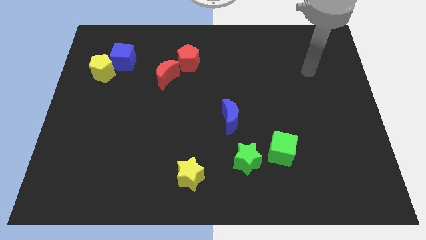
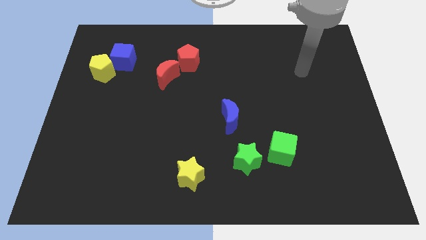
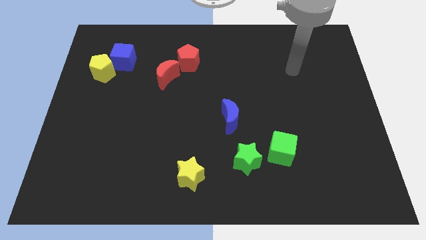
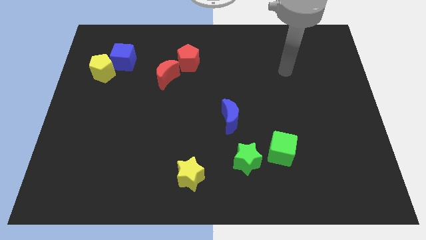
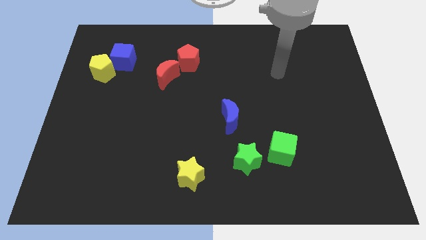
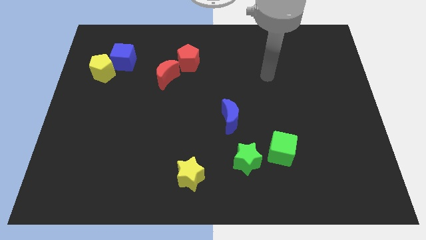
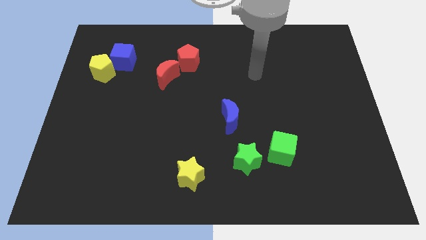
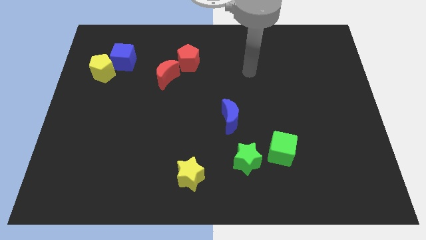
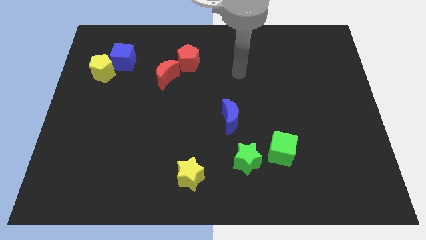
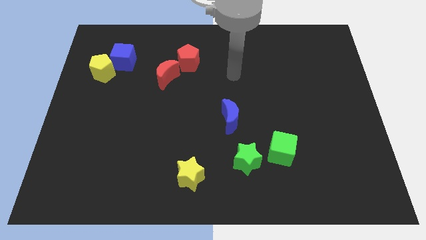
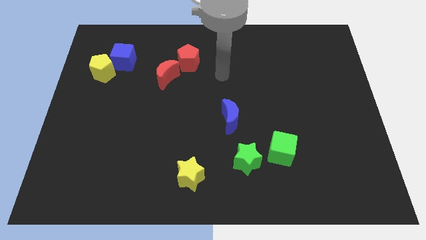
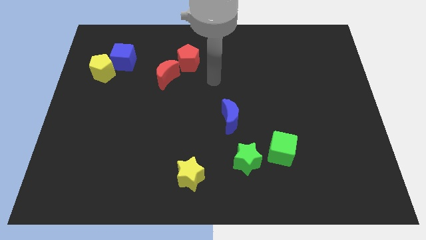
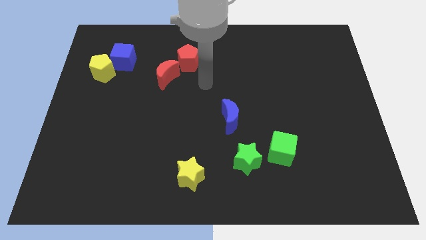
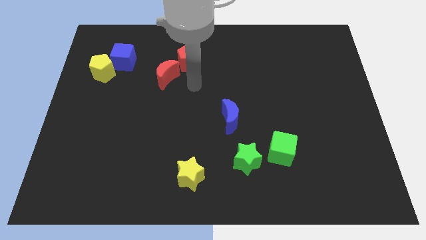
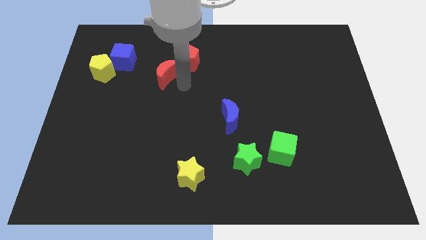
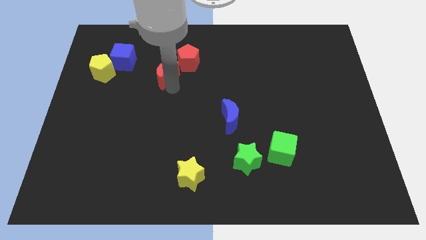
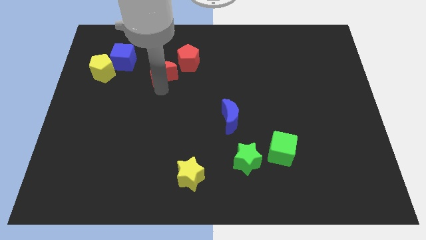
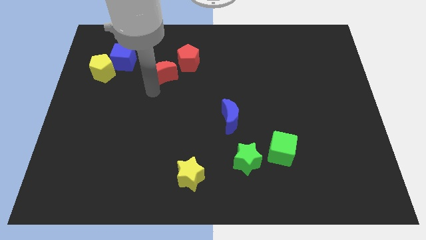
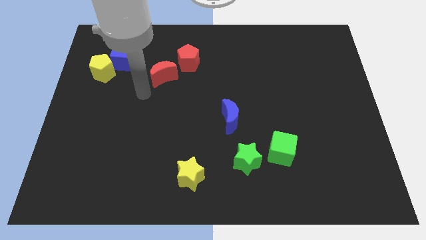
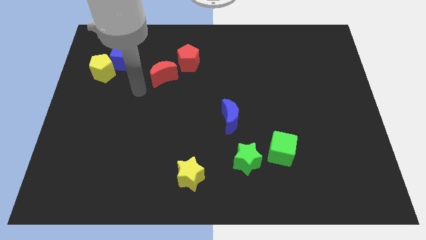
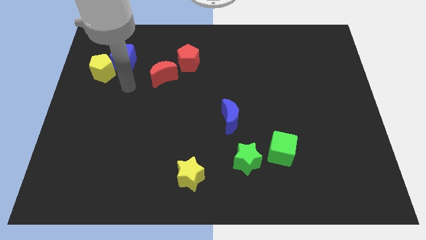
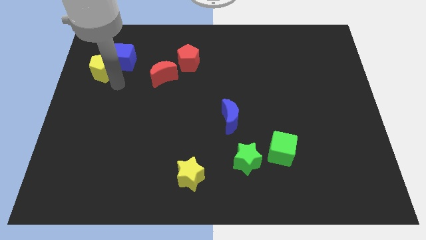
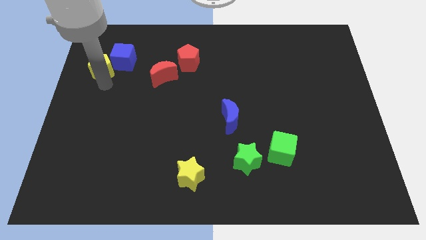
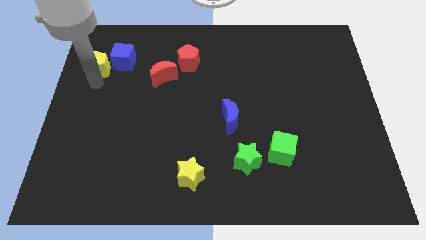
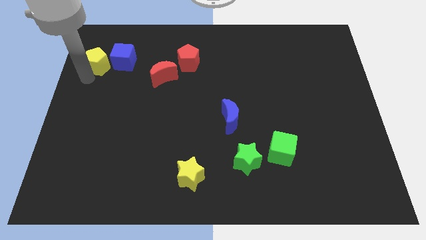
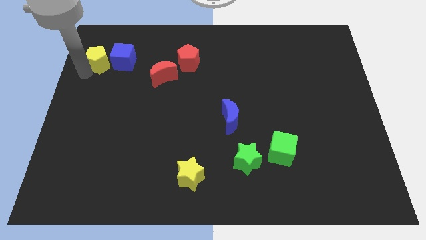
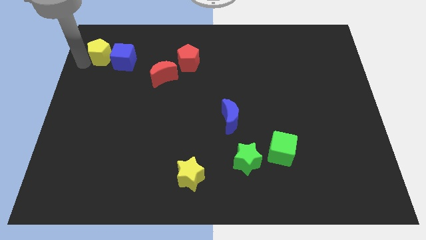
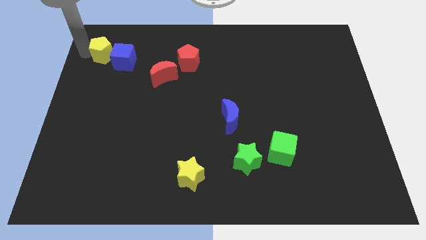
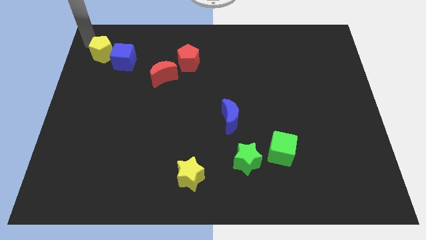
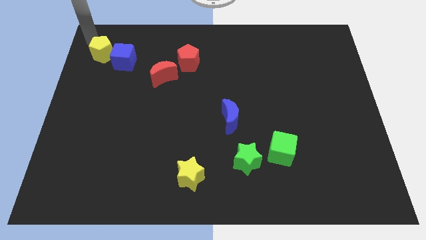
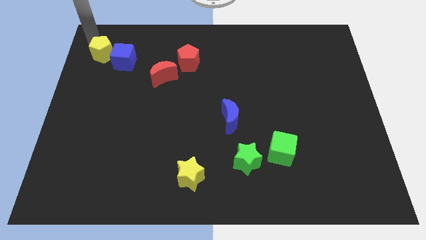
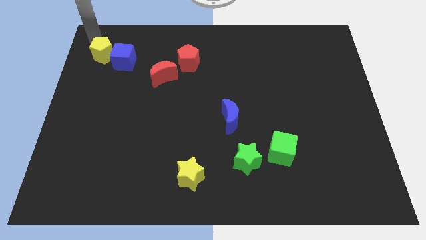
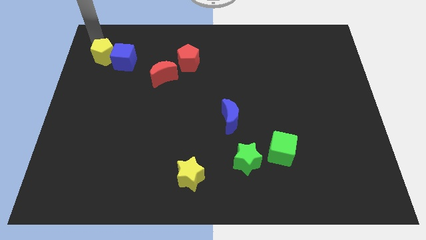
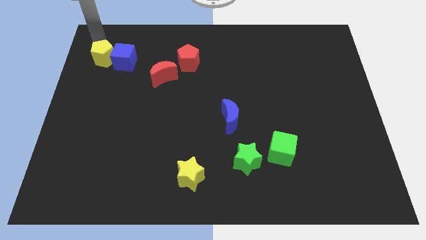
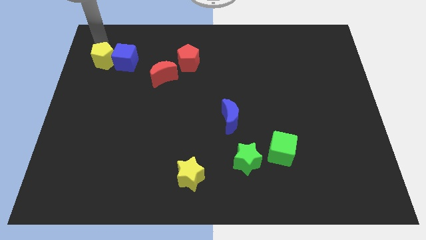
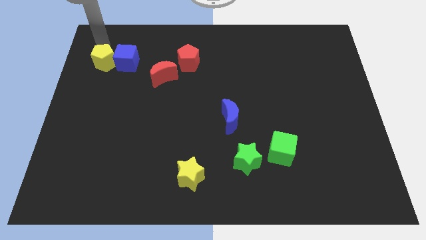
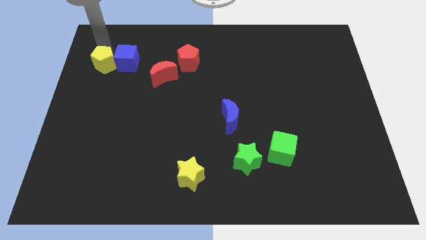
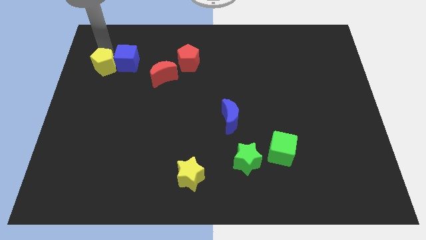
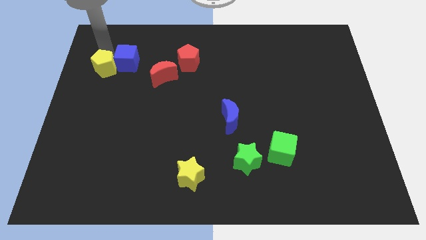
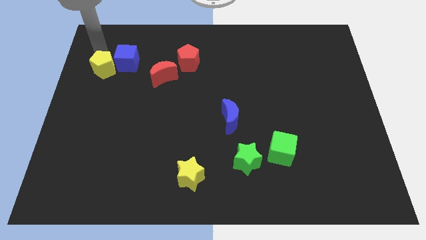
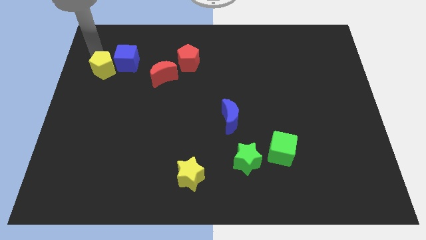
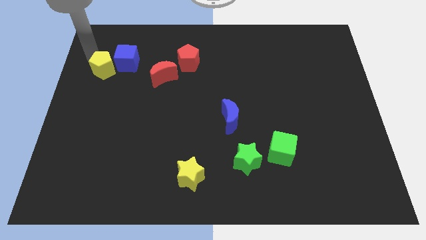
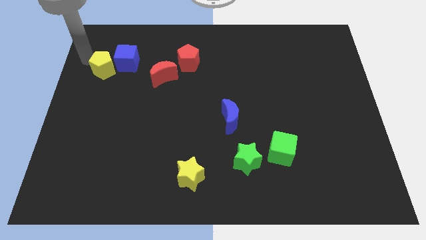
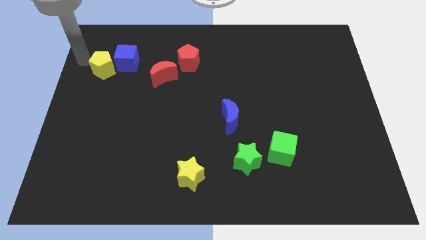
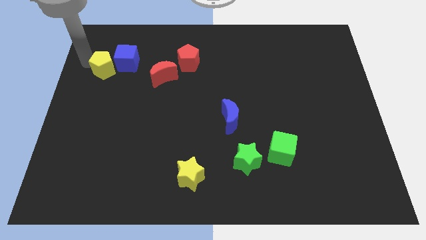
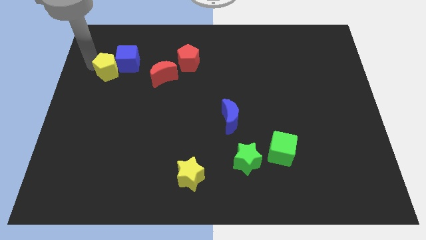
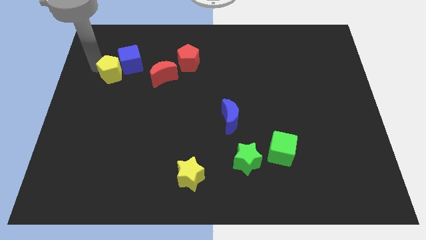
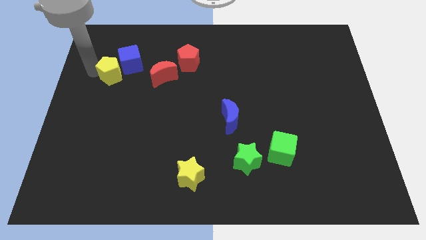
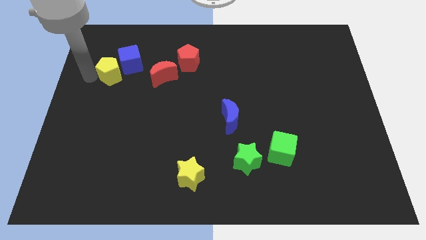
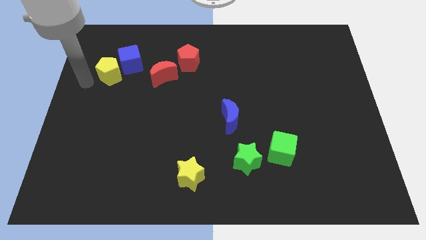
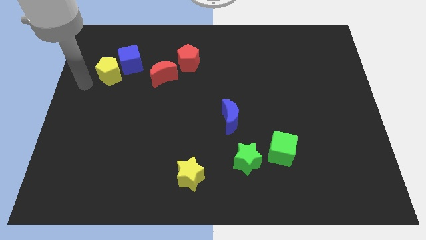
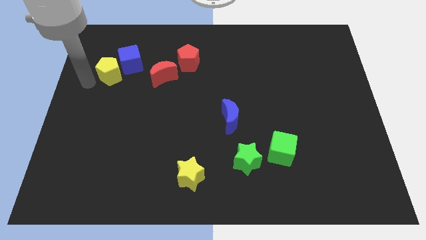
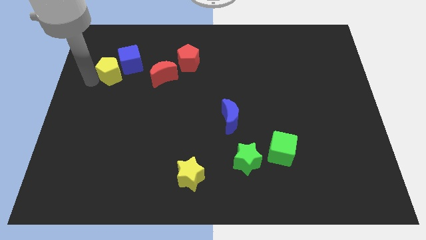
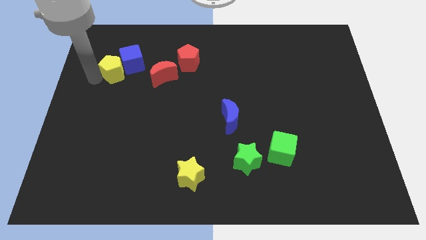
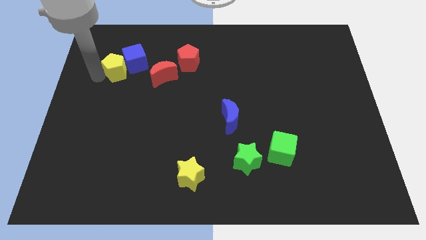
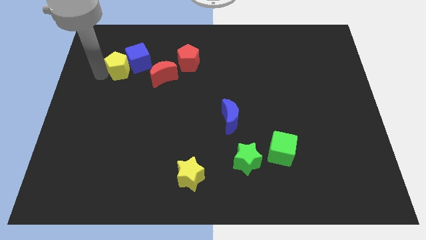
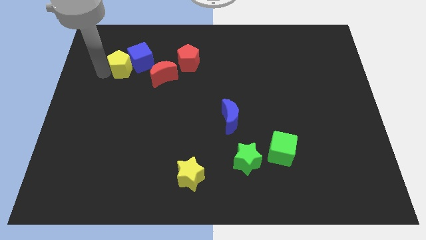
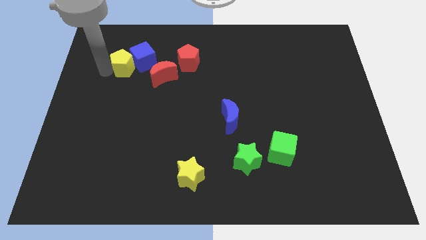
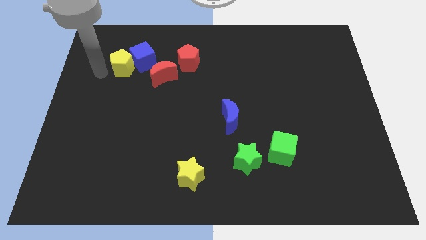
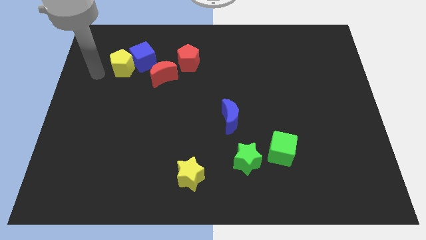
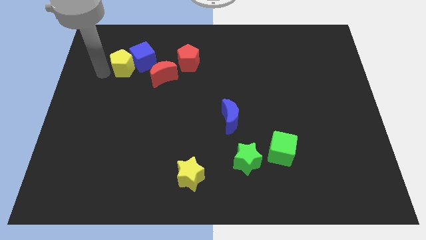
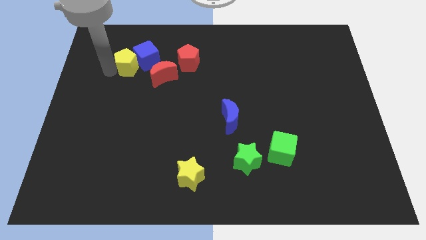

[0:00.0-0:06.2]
move the yellow pentagon to the top left side of the red moon
